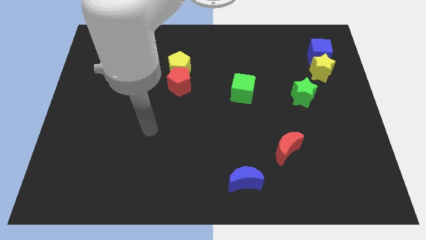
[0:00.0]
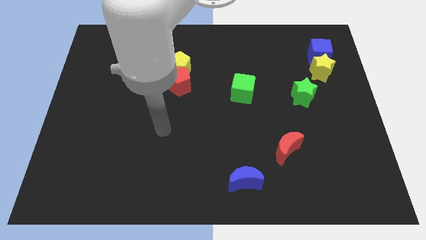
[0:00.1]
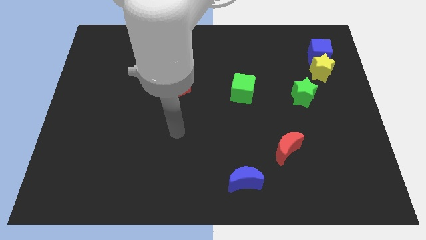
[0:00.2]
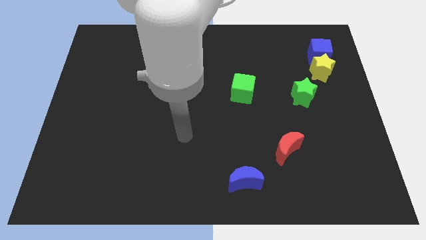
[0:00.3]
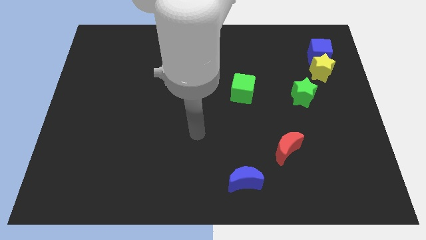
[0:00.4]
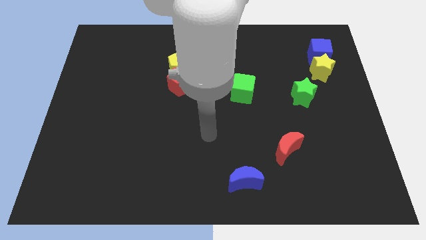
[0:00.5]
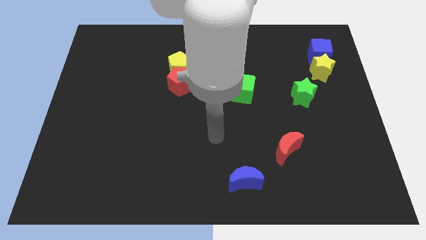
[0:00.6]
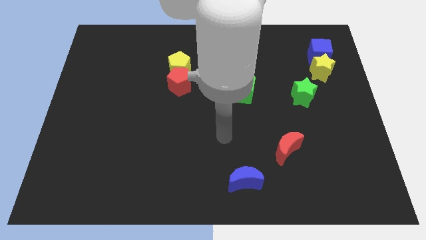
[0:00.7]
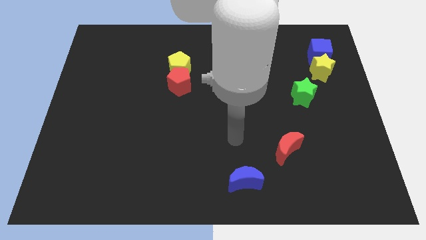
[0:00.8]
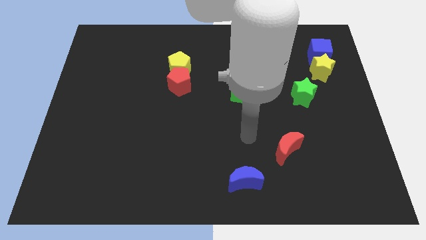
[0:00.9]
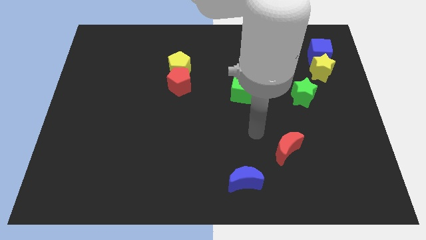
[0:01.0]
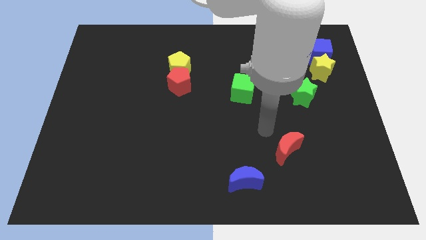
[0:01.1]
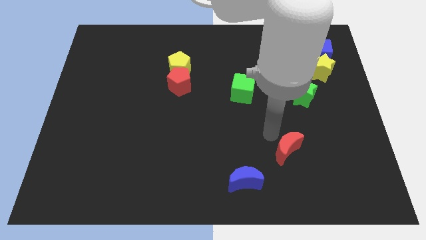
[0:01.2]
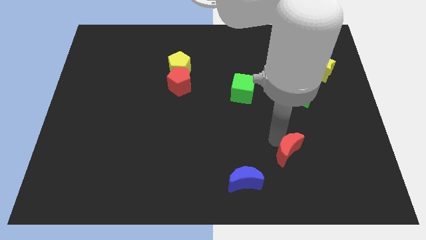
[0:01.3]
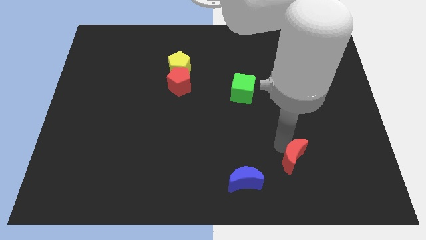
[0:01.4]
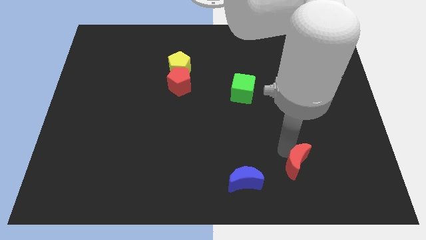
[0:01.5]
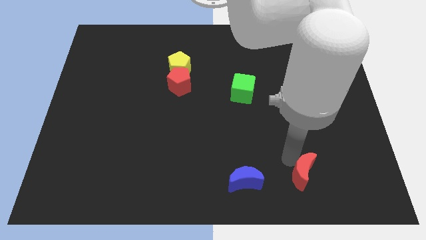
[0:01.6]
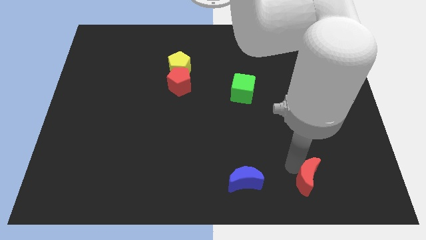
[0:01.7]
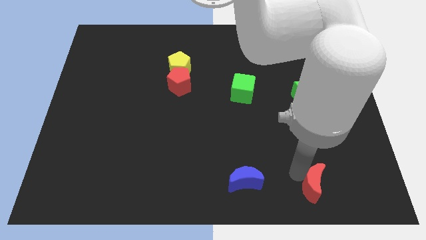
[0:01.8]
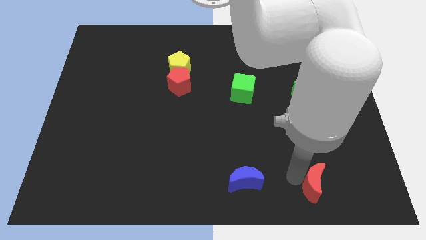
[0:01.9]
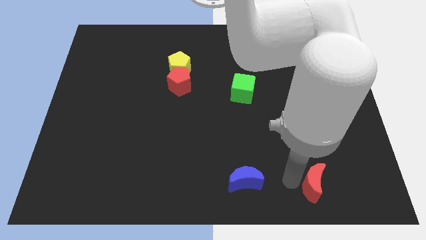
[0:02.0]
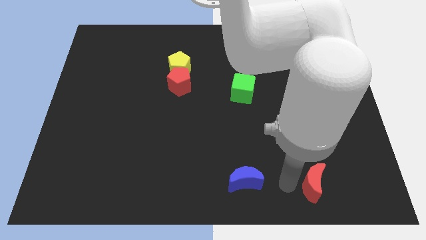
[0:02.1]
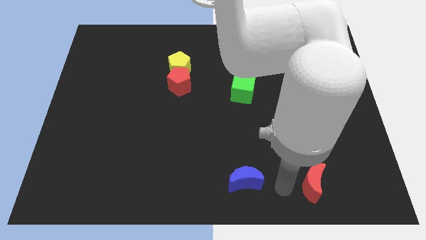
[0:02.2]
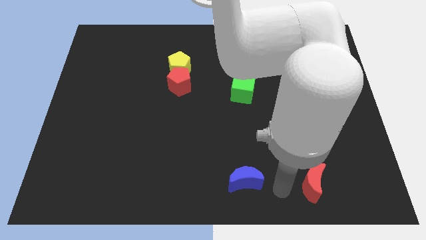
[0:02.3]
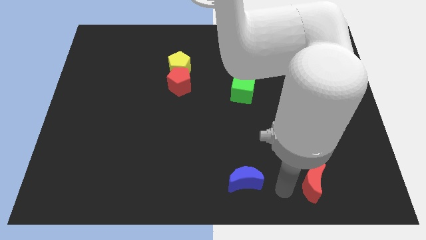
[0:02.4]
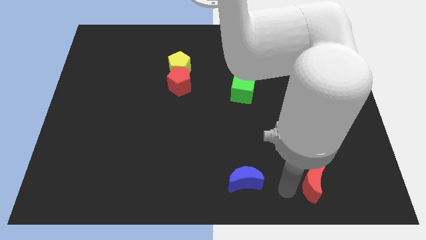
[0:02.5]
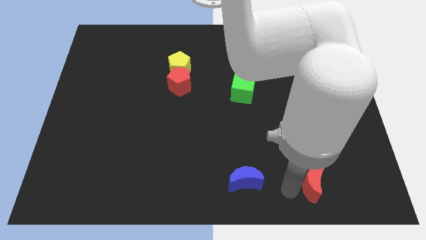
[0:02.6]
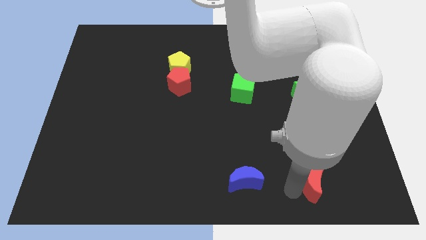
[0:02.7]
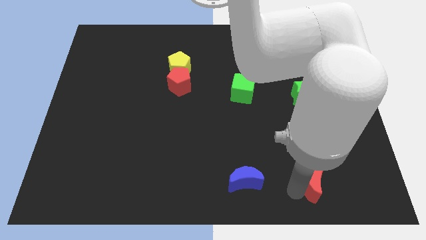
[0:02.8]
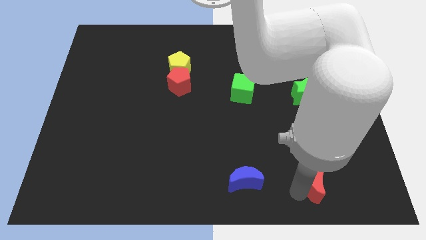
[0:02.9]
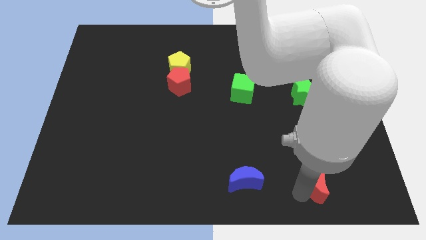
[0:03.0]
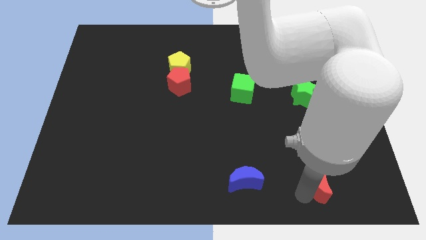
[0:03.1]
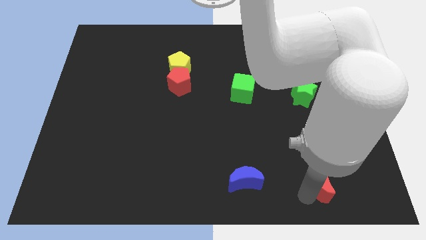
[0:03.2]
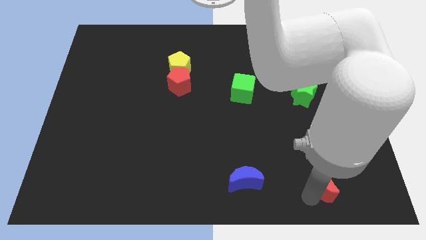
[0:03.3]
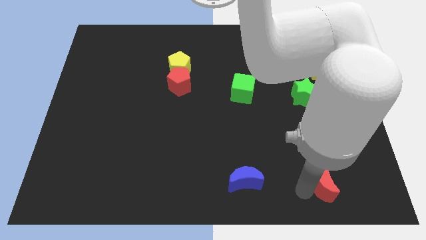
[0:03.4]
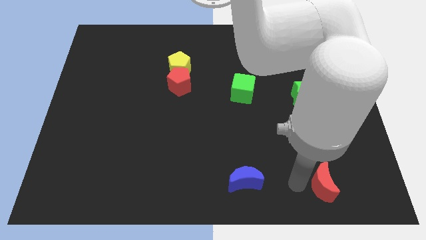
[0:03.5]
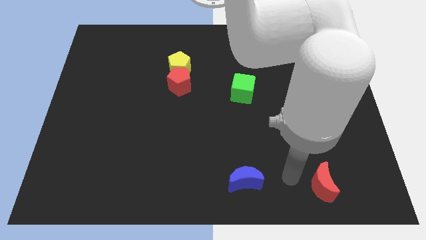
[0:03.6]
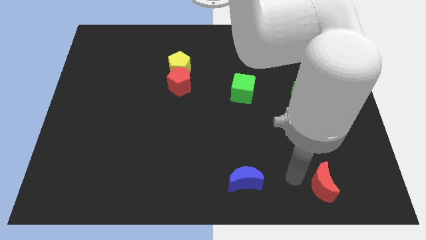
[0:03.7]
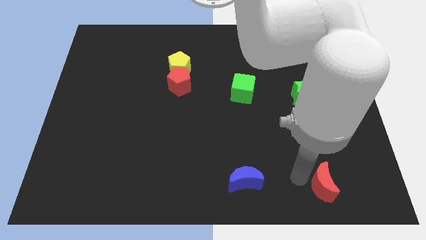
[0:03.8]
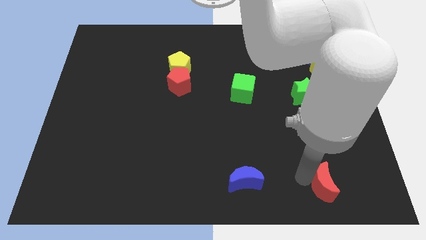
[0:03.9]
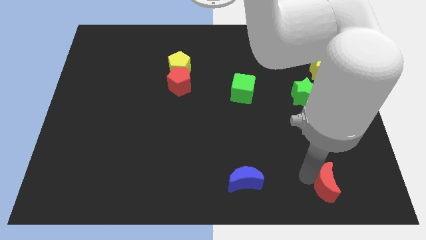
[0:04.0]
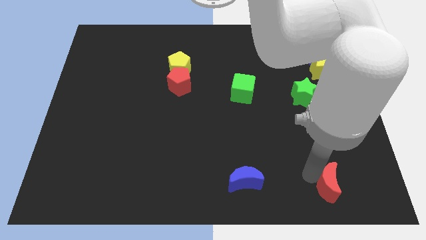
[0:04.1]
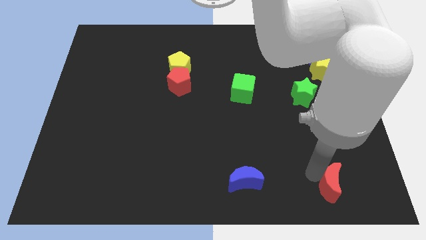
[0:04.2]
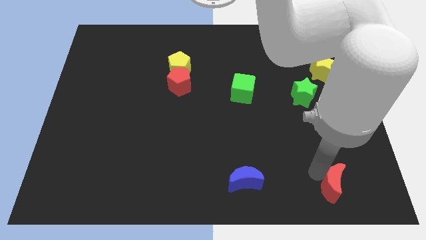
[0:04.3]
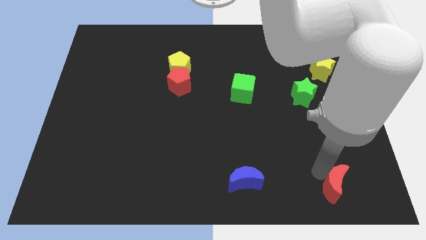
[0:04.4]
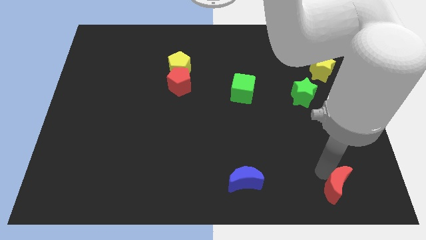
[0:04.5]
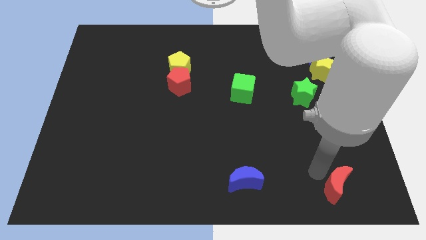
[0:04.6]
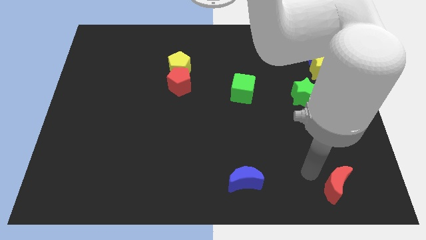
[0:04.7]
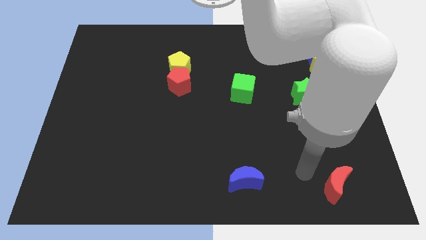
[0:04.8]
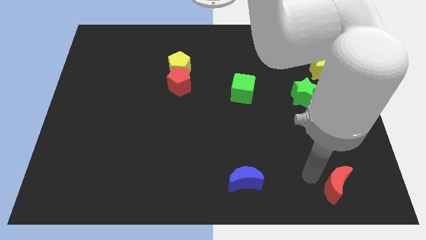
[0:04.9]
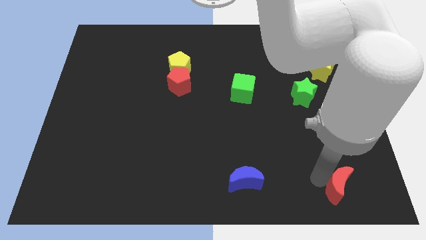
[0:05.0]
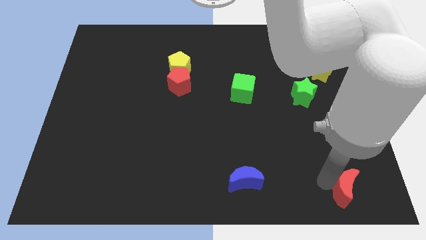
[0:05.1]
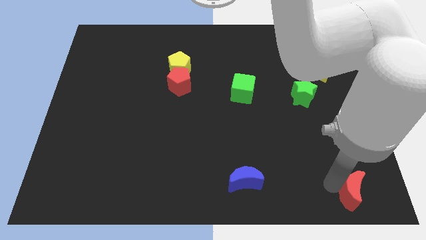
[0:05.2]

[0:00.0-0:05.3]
move the red moon to the bottom right corner
